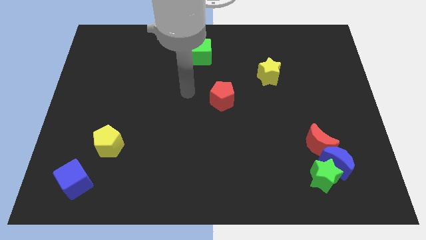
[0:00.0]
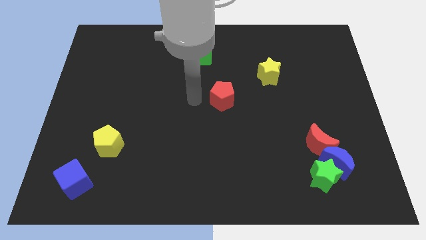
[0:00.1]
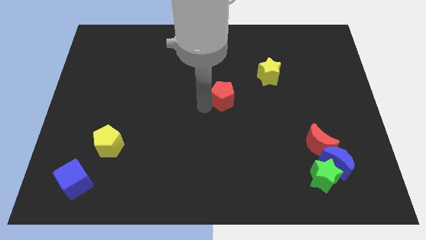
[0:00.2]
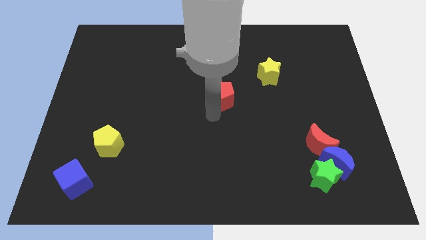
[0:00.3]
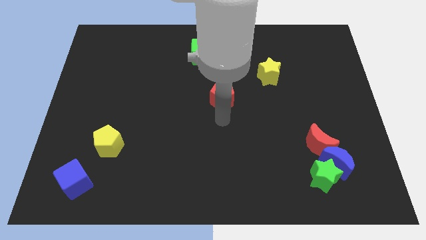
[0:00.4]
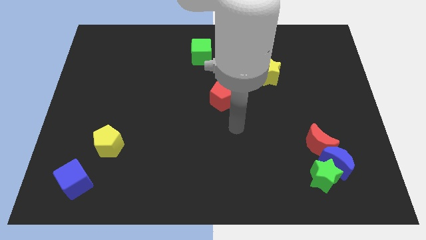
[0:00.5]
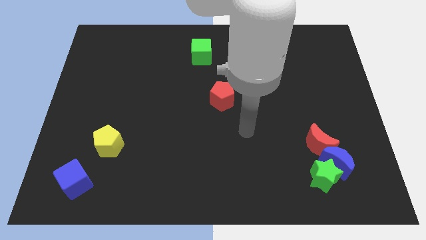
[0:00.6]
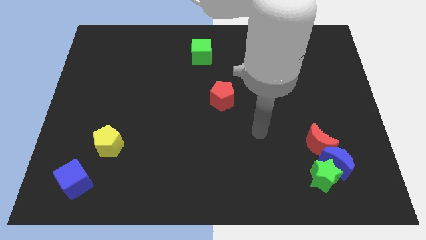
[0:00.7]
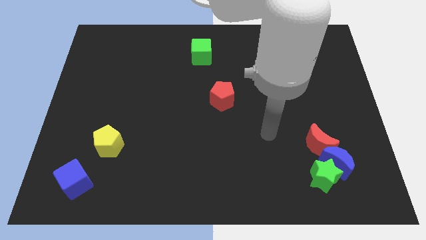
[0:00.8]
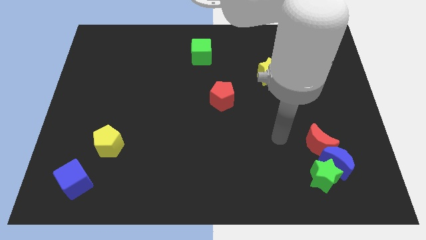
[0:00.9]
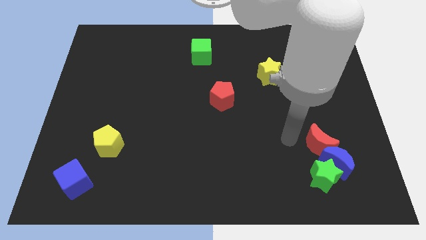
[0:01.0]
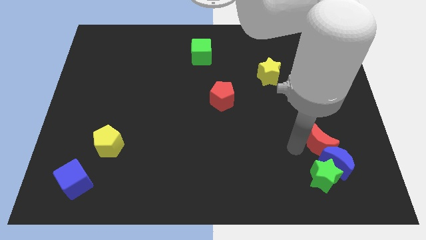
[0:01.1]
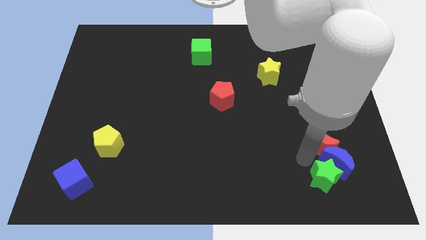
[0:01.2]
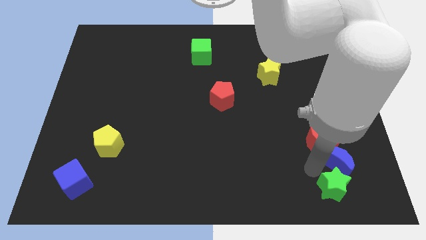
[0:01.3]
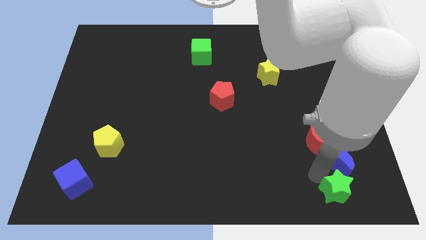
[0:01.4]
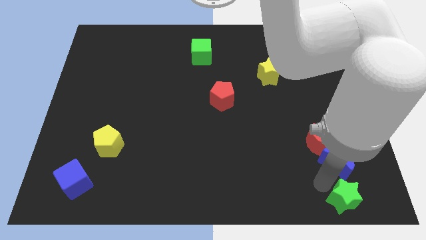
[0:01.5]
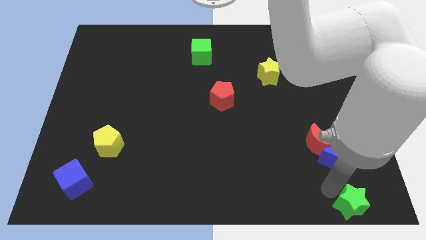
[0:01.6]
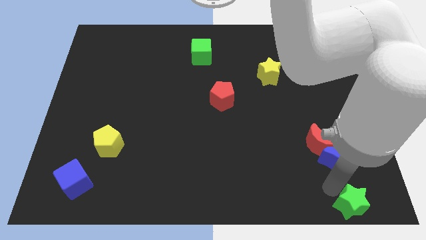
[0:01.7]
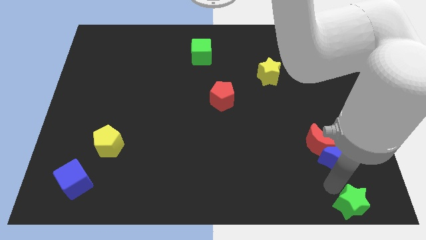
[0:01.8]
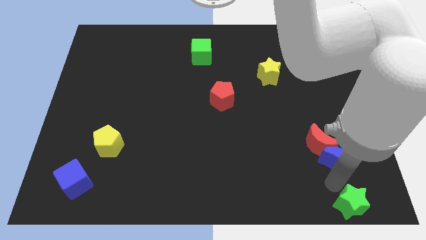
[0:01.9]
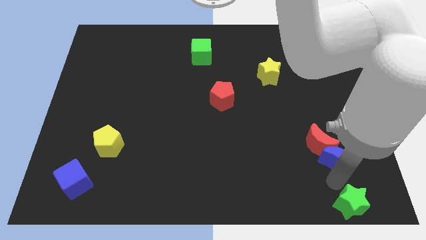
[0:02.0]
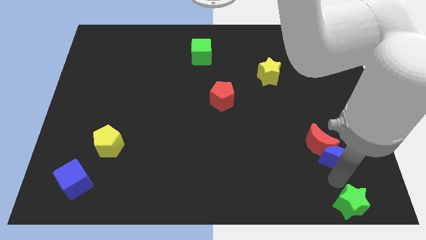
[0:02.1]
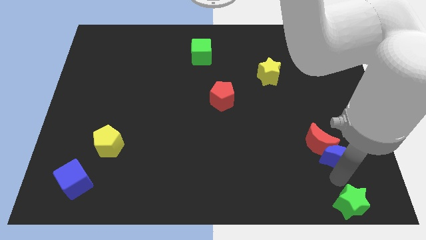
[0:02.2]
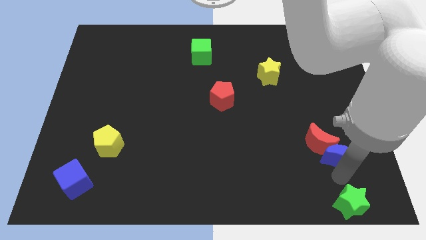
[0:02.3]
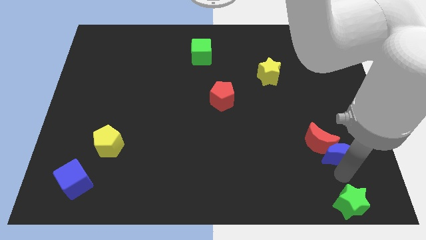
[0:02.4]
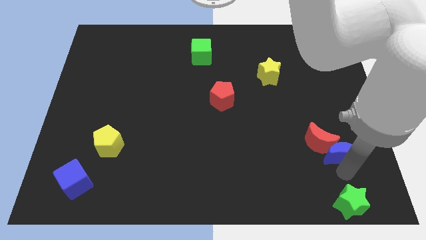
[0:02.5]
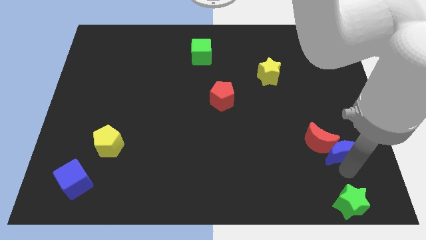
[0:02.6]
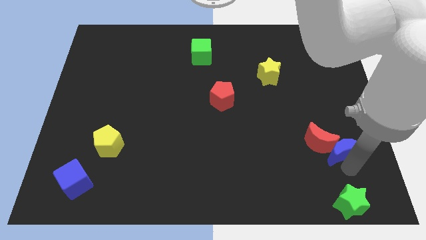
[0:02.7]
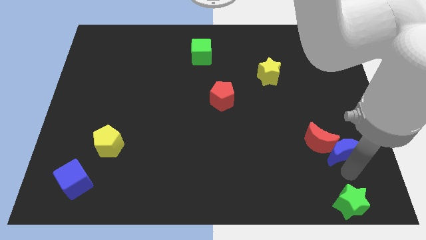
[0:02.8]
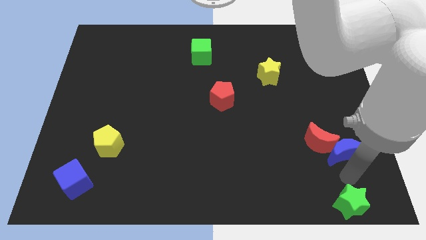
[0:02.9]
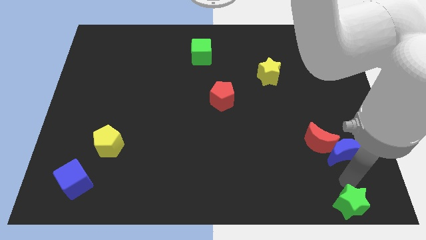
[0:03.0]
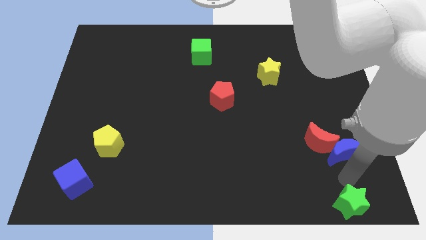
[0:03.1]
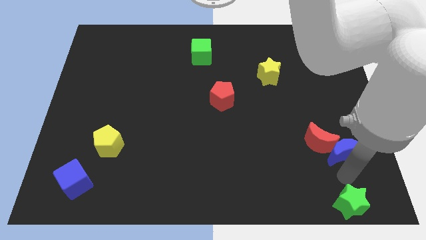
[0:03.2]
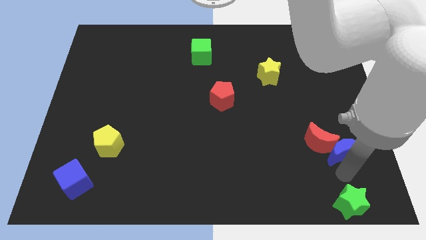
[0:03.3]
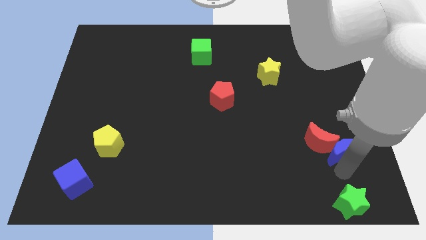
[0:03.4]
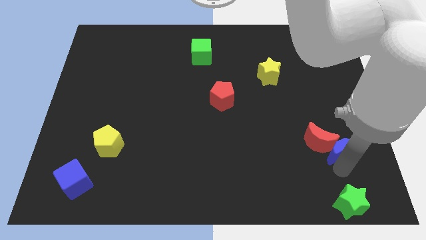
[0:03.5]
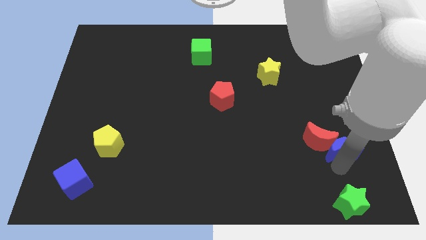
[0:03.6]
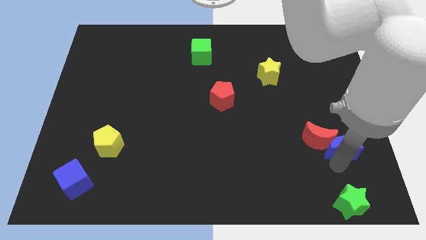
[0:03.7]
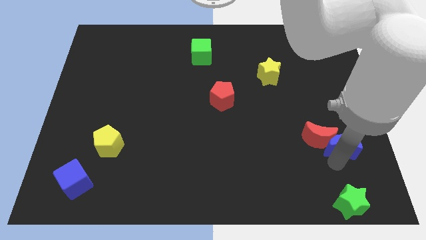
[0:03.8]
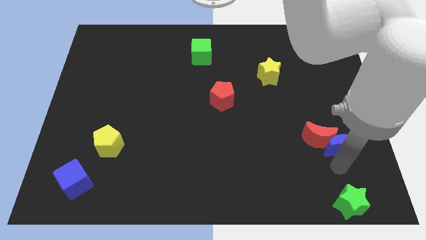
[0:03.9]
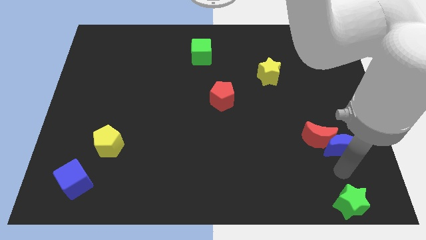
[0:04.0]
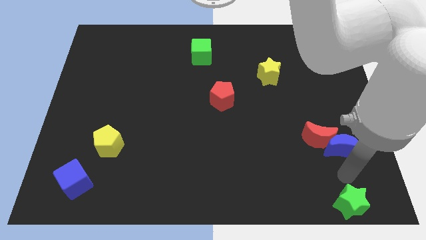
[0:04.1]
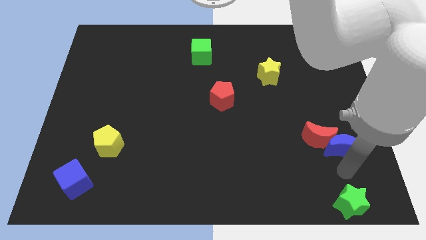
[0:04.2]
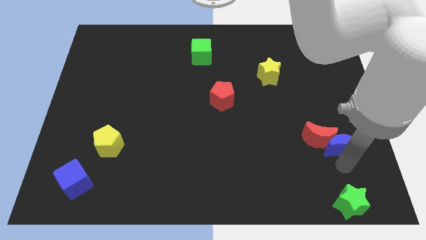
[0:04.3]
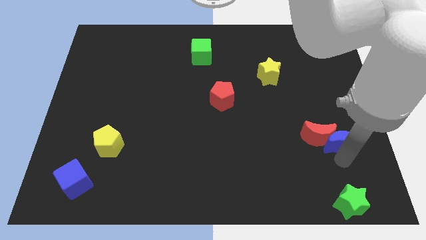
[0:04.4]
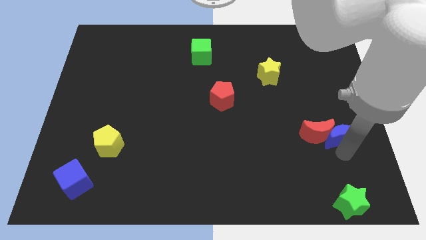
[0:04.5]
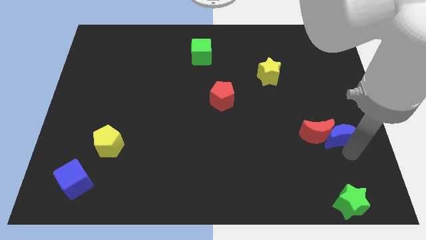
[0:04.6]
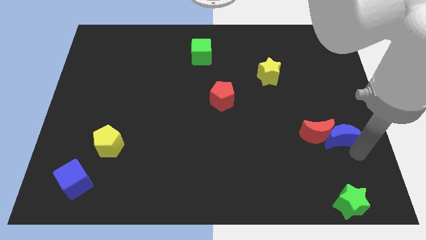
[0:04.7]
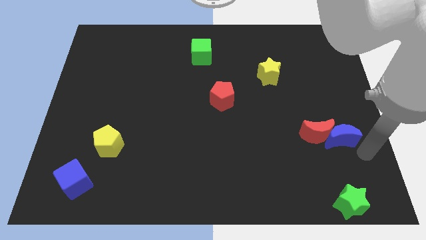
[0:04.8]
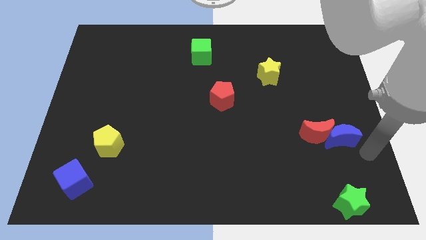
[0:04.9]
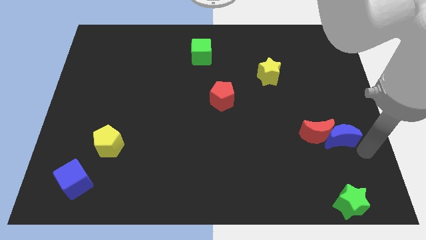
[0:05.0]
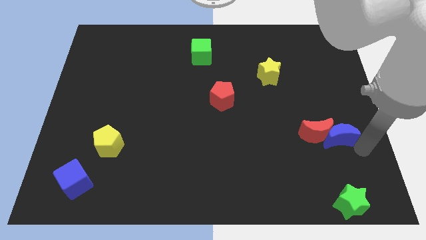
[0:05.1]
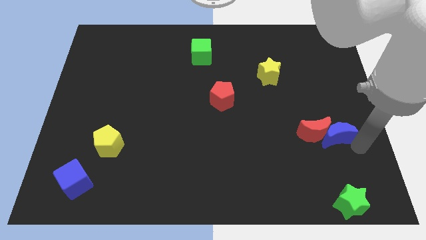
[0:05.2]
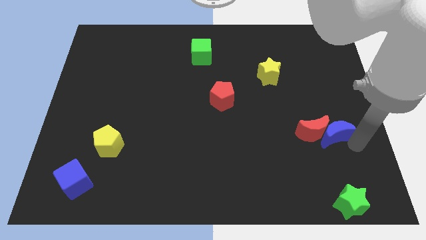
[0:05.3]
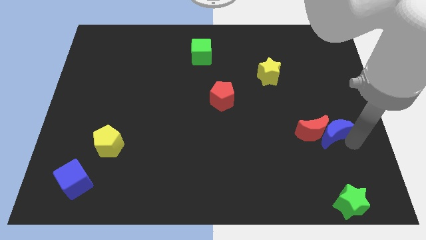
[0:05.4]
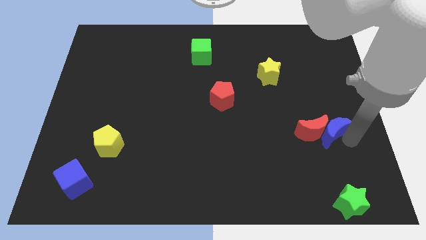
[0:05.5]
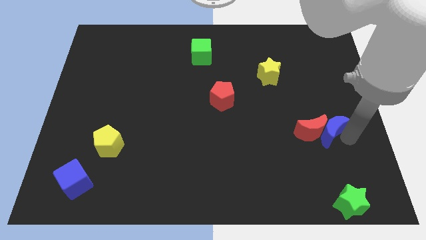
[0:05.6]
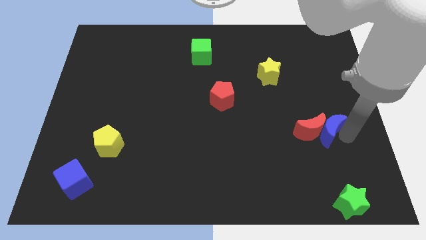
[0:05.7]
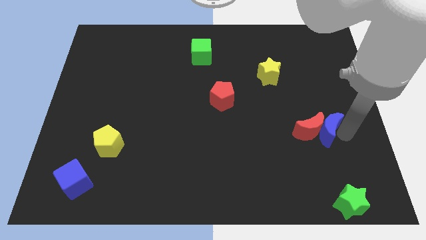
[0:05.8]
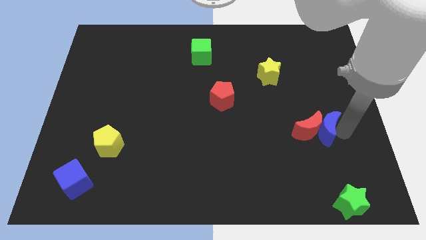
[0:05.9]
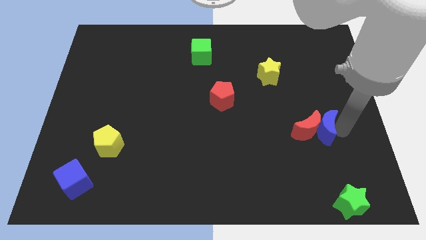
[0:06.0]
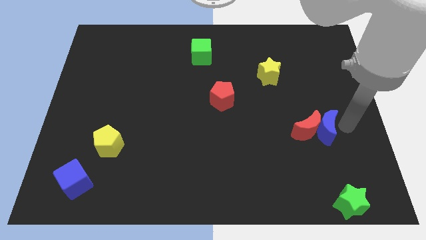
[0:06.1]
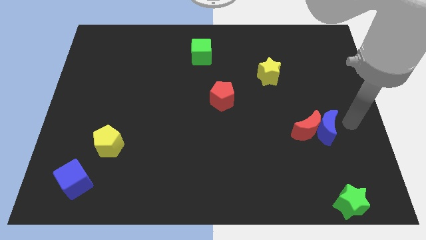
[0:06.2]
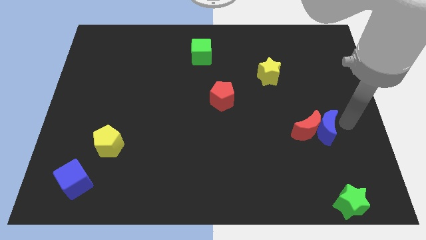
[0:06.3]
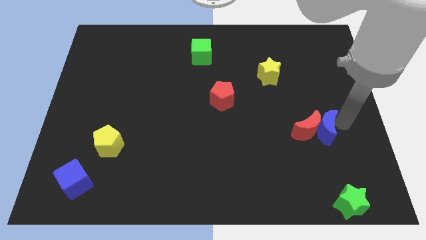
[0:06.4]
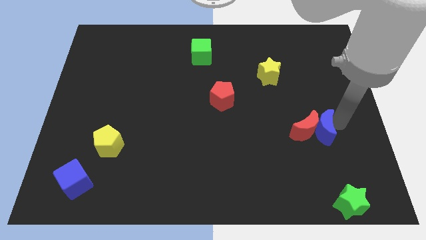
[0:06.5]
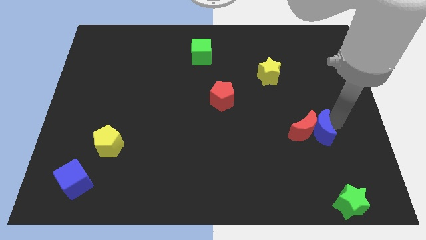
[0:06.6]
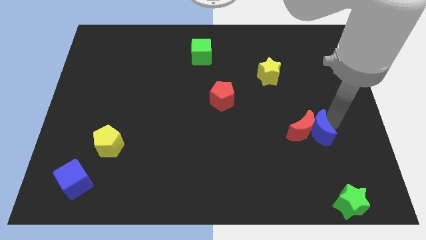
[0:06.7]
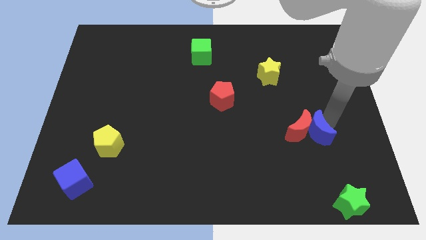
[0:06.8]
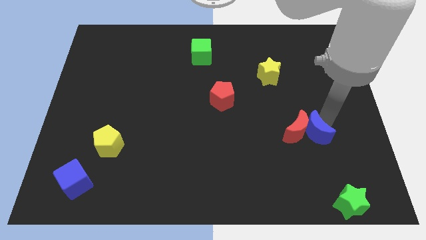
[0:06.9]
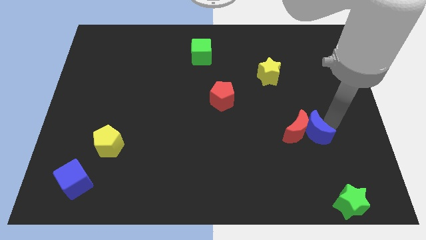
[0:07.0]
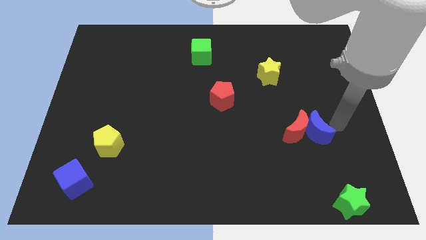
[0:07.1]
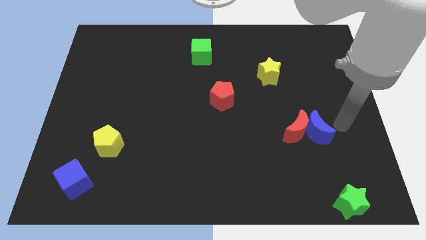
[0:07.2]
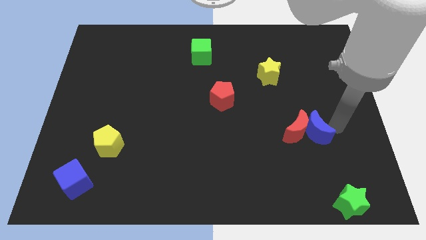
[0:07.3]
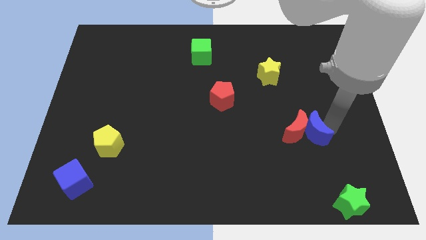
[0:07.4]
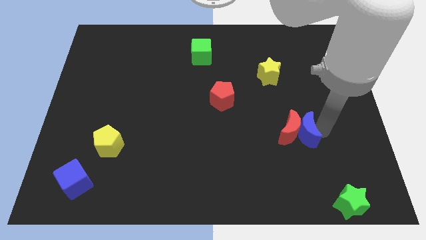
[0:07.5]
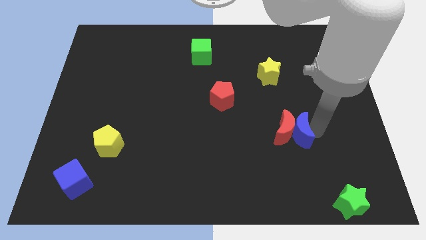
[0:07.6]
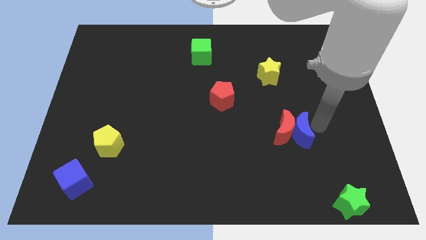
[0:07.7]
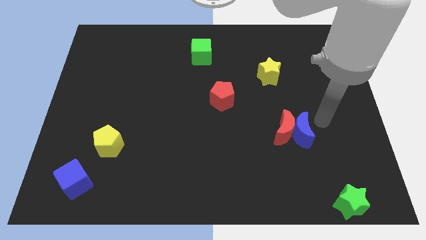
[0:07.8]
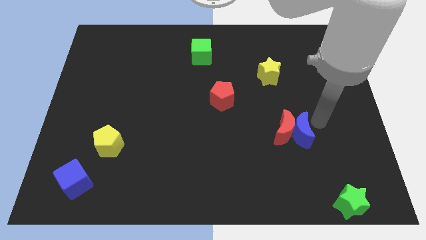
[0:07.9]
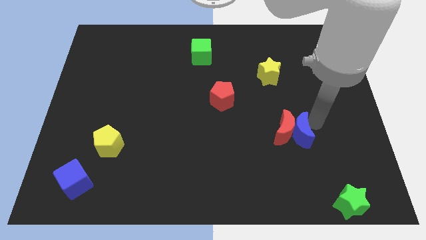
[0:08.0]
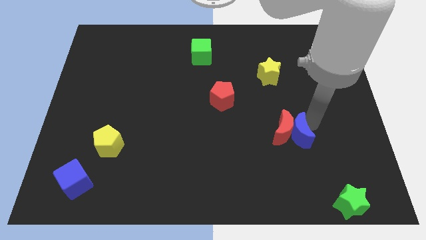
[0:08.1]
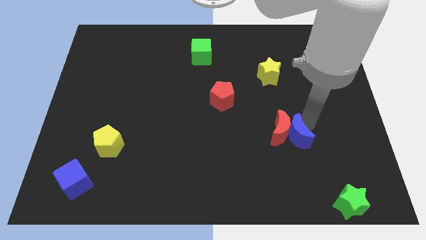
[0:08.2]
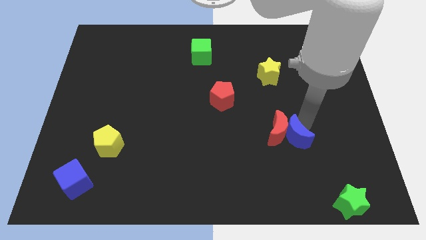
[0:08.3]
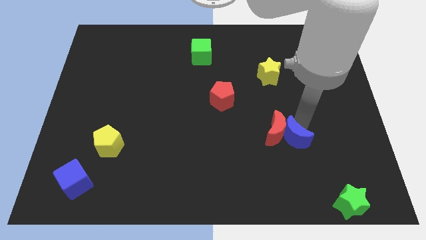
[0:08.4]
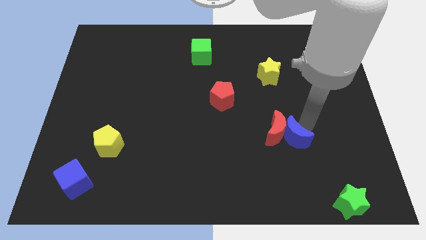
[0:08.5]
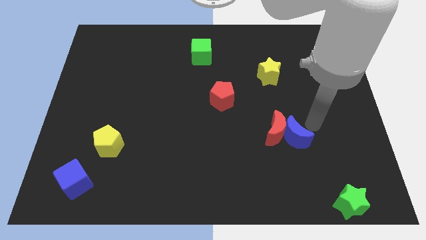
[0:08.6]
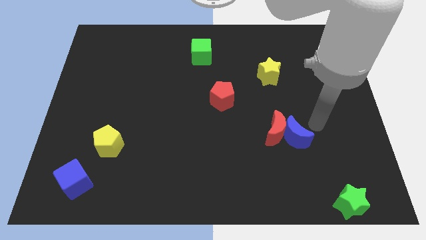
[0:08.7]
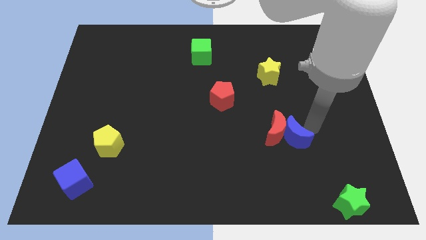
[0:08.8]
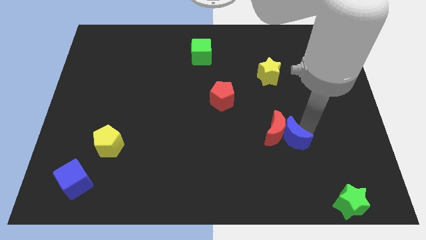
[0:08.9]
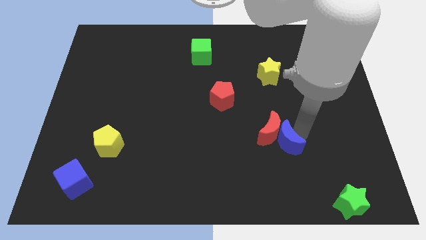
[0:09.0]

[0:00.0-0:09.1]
slide the blue moon to the left slightly
